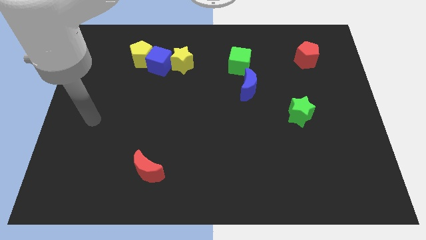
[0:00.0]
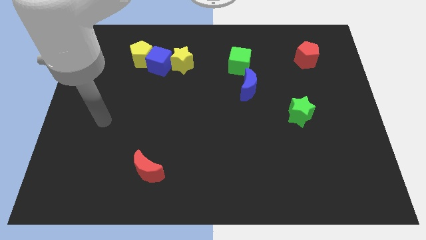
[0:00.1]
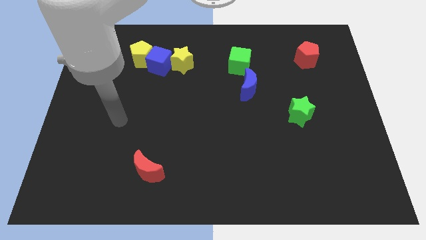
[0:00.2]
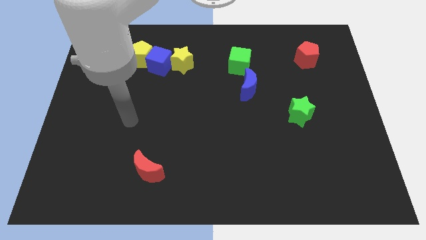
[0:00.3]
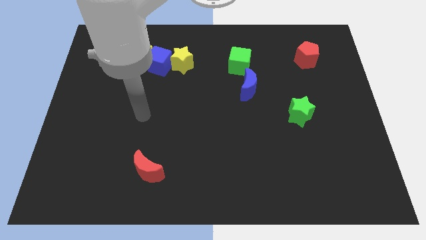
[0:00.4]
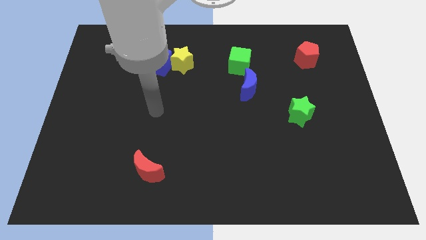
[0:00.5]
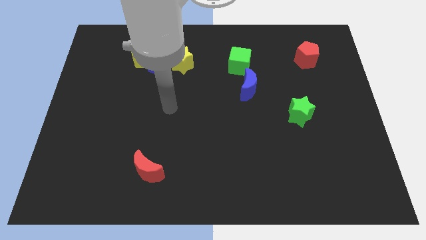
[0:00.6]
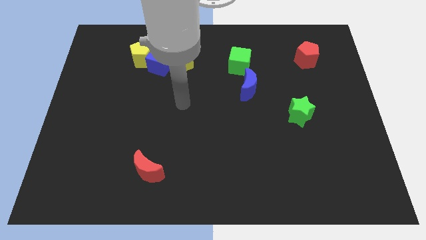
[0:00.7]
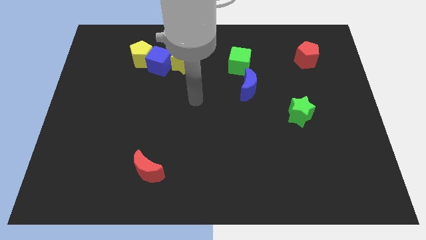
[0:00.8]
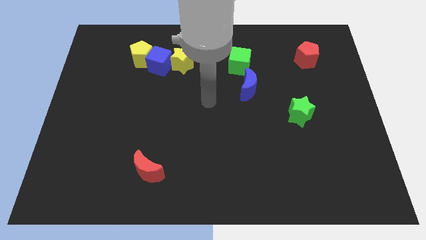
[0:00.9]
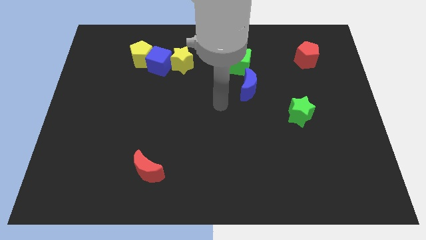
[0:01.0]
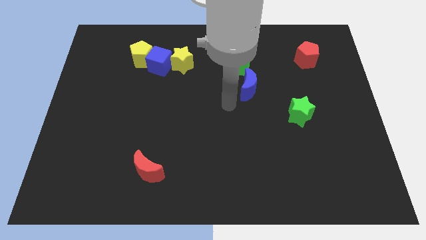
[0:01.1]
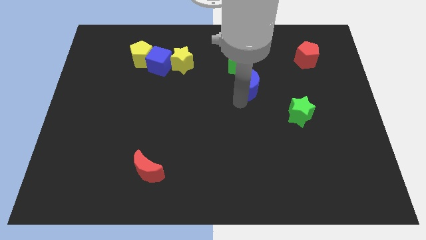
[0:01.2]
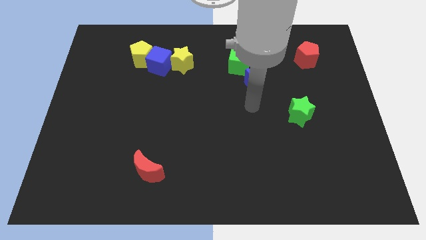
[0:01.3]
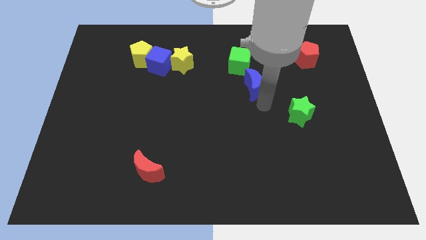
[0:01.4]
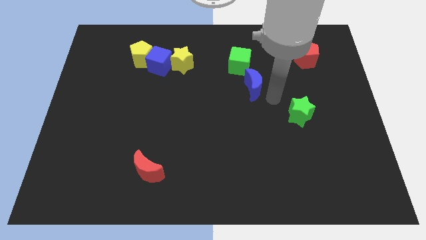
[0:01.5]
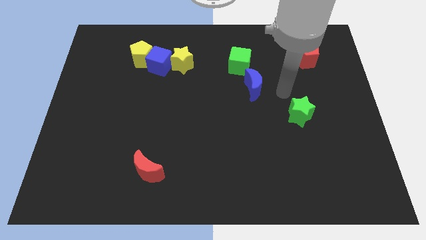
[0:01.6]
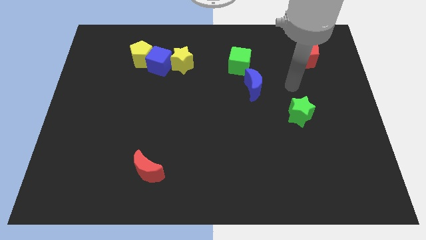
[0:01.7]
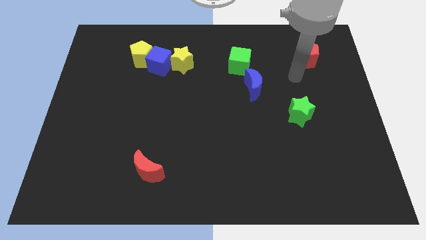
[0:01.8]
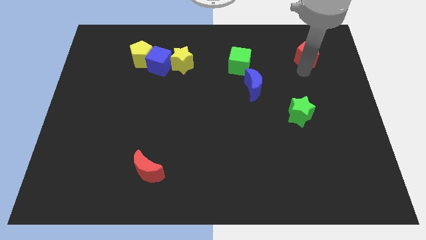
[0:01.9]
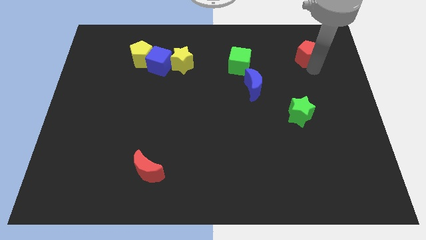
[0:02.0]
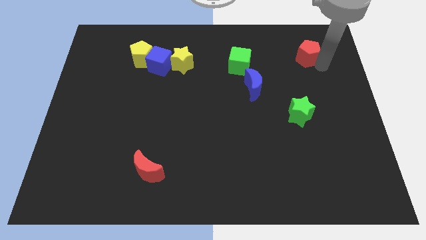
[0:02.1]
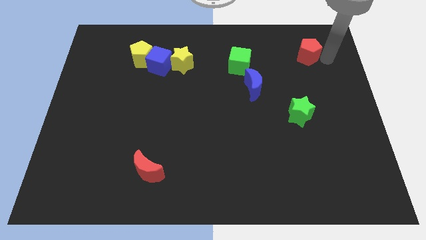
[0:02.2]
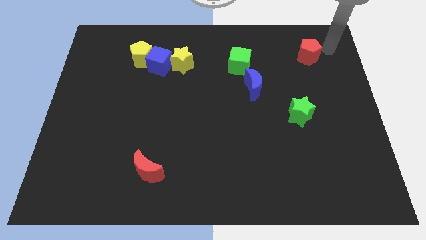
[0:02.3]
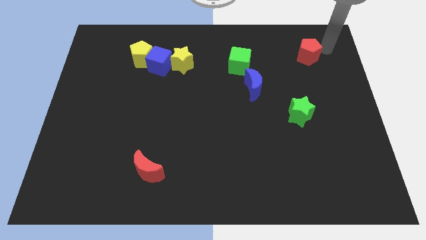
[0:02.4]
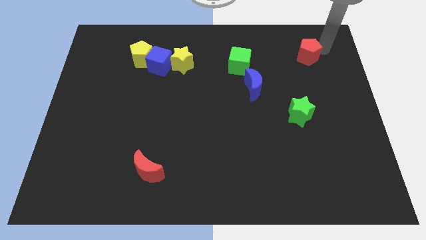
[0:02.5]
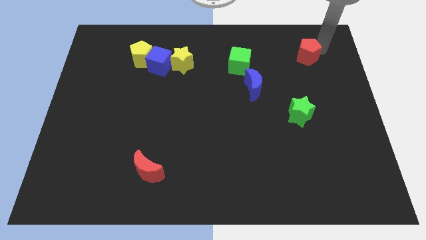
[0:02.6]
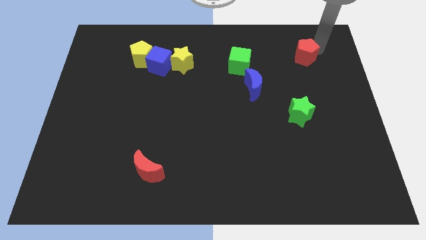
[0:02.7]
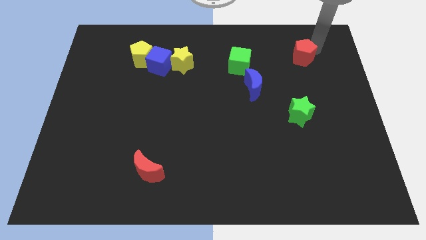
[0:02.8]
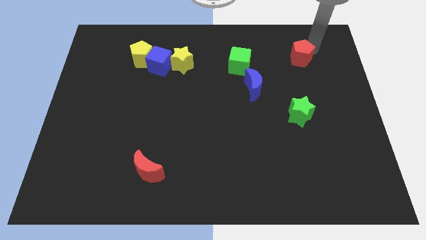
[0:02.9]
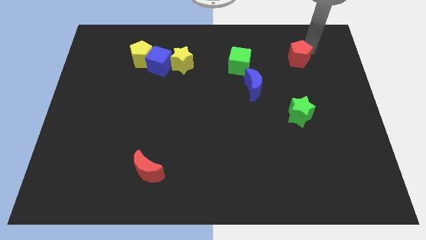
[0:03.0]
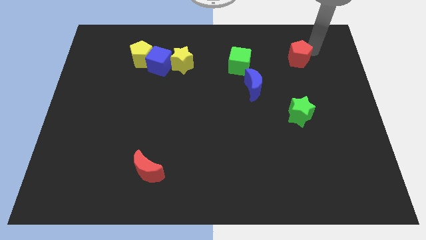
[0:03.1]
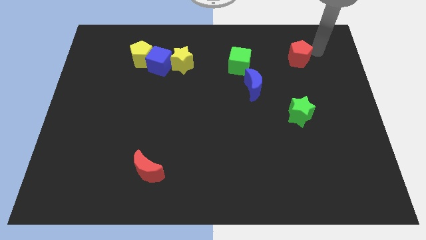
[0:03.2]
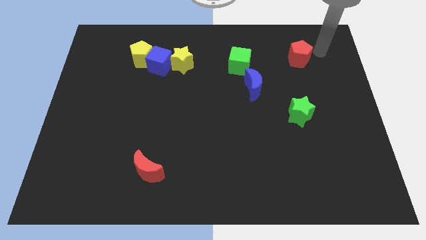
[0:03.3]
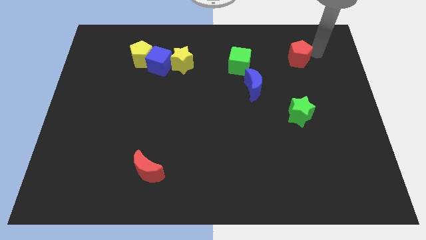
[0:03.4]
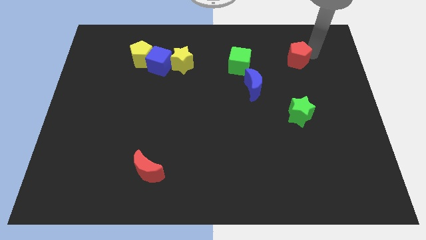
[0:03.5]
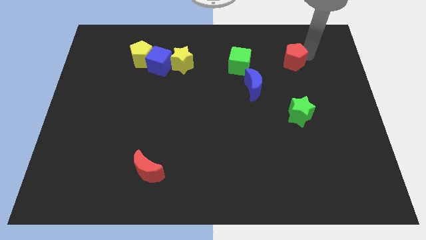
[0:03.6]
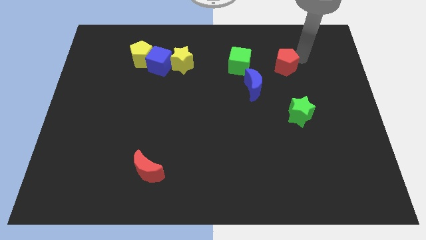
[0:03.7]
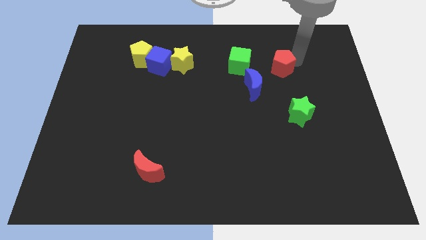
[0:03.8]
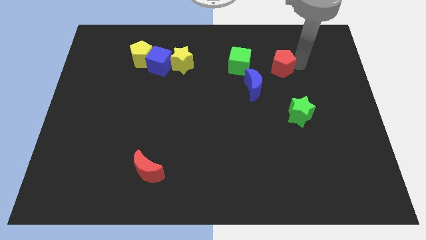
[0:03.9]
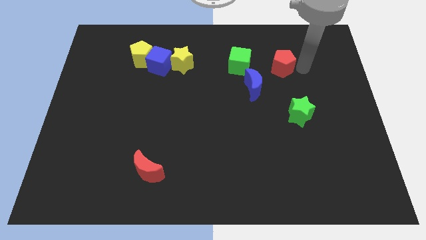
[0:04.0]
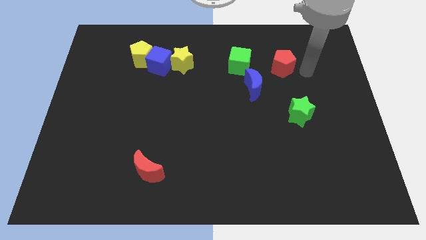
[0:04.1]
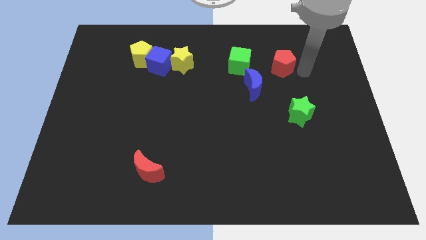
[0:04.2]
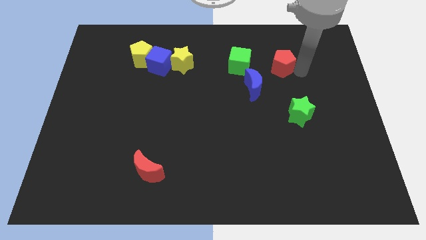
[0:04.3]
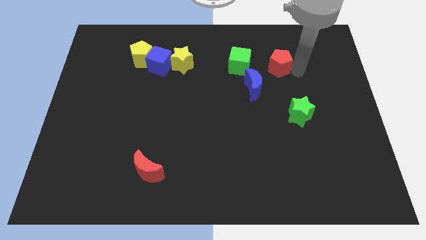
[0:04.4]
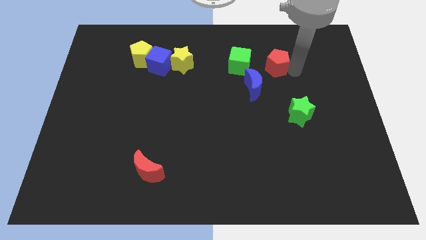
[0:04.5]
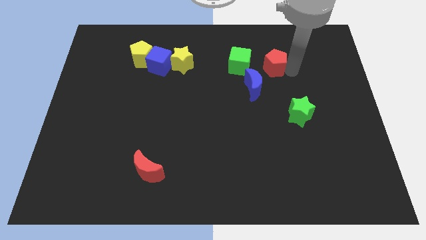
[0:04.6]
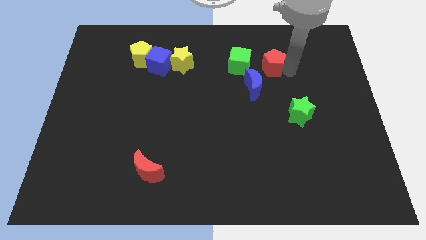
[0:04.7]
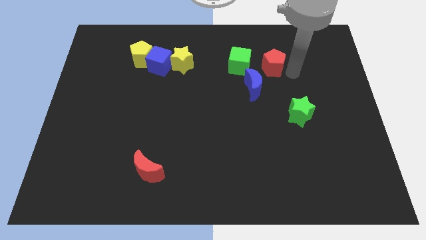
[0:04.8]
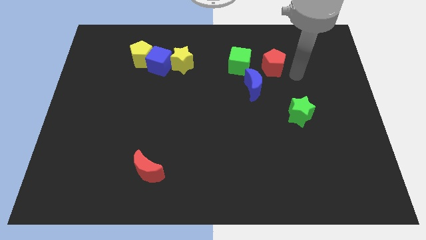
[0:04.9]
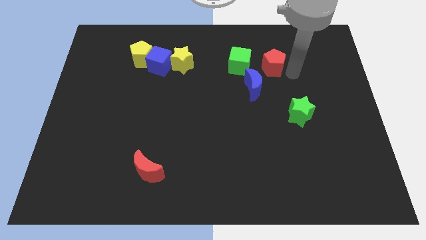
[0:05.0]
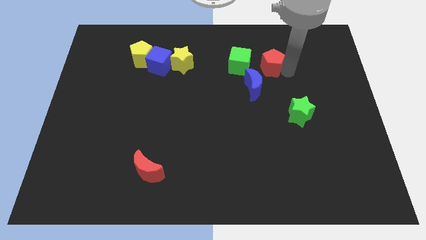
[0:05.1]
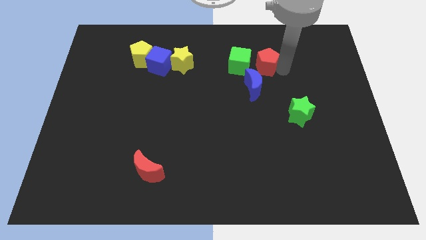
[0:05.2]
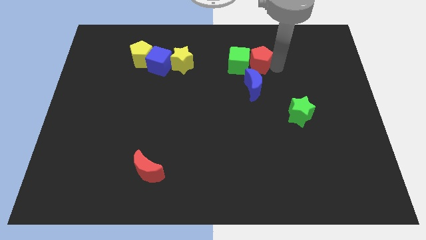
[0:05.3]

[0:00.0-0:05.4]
put the red pentagon next to the green cube

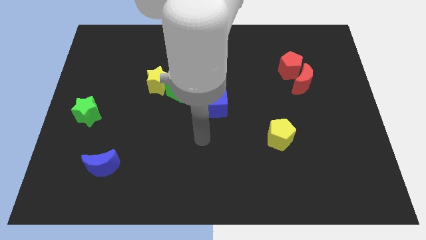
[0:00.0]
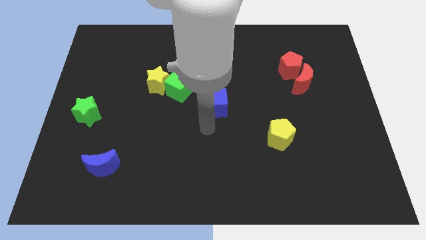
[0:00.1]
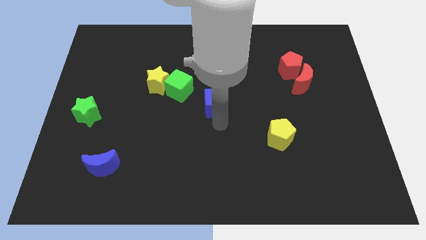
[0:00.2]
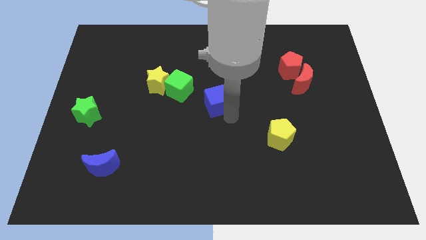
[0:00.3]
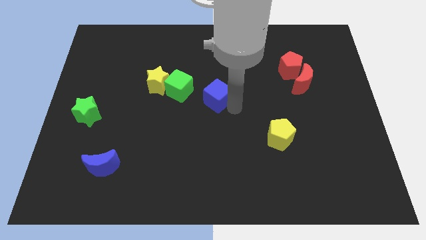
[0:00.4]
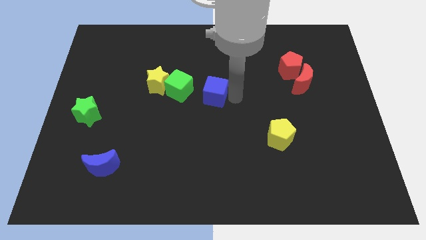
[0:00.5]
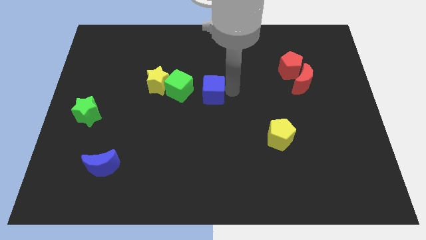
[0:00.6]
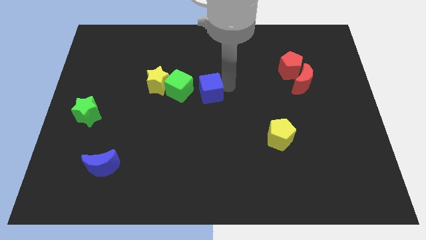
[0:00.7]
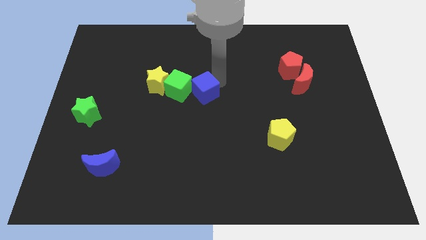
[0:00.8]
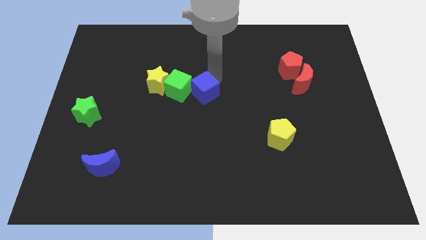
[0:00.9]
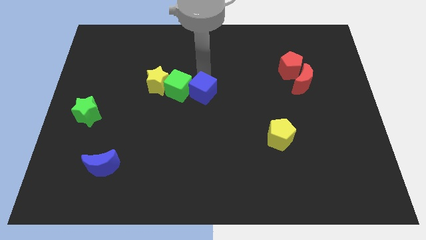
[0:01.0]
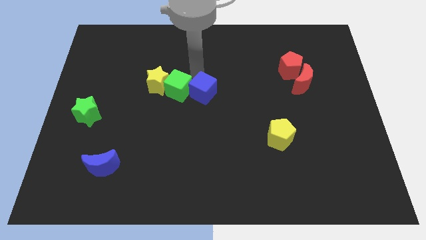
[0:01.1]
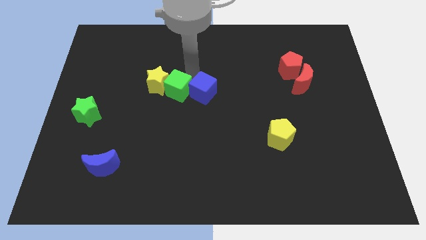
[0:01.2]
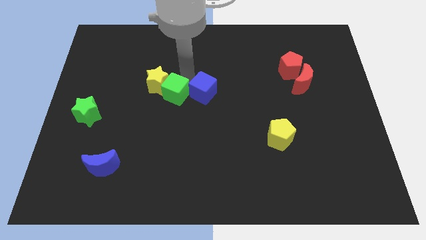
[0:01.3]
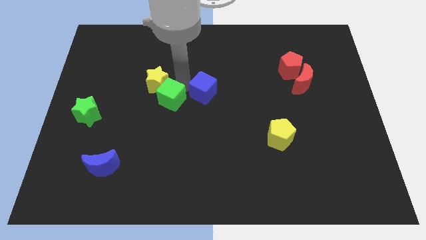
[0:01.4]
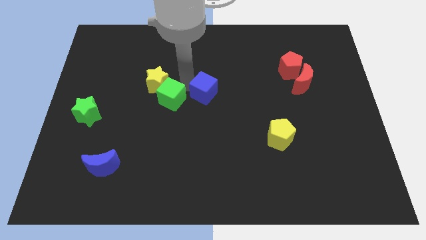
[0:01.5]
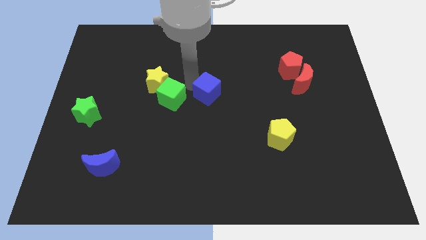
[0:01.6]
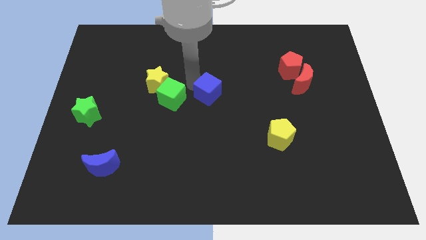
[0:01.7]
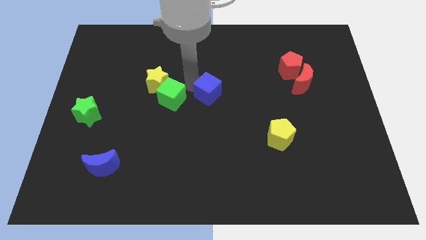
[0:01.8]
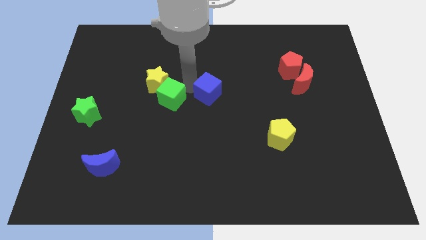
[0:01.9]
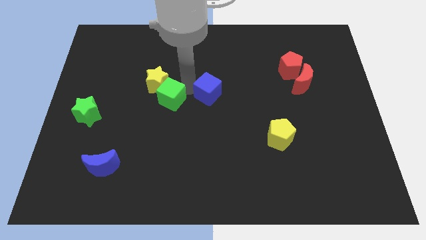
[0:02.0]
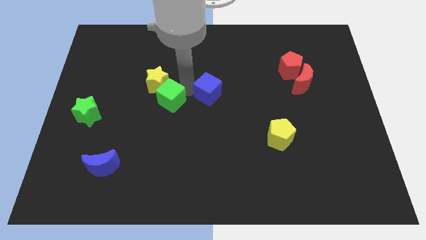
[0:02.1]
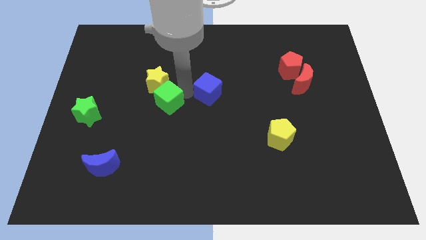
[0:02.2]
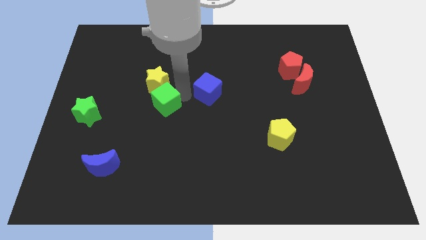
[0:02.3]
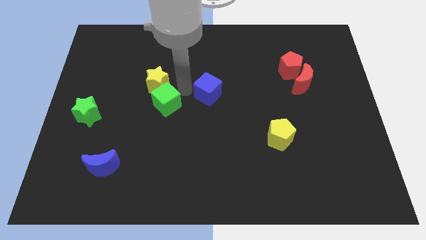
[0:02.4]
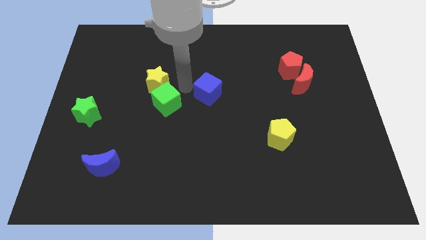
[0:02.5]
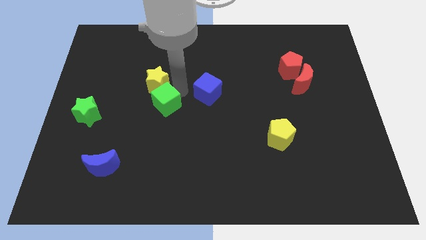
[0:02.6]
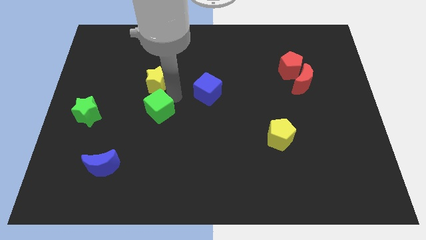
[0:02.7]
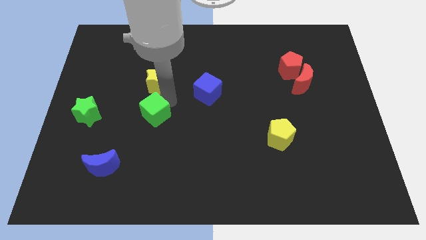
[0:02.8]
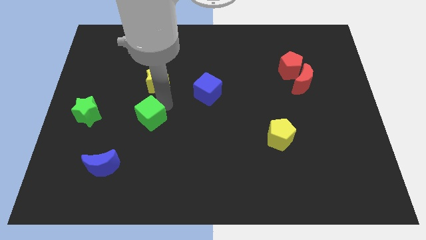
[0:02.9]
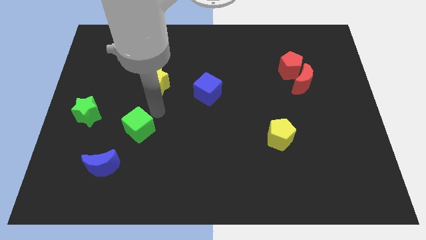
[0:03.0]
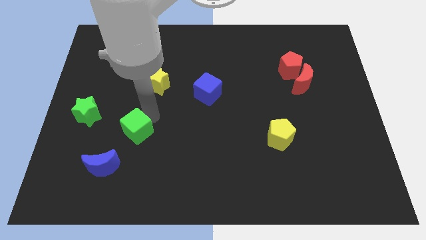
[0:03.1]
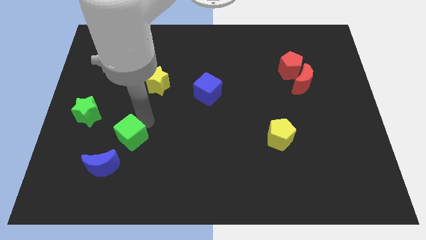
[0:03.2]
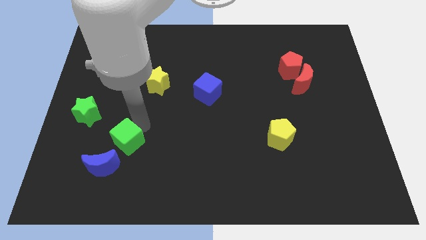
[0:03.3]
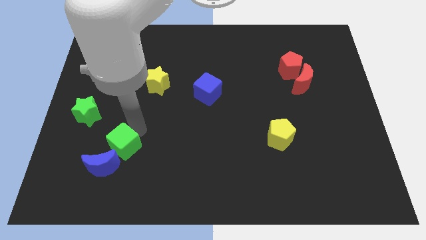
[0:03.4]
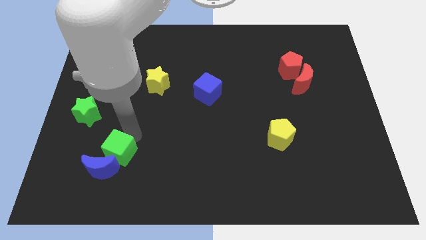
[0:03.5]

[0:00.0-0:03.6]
slide the green cube to the blue moon
